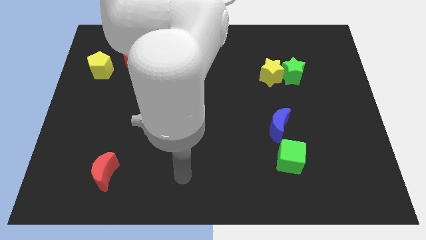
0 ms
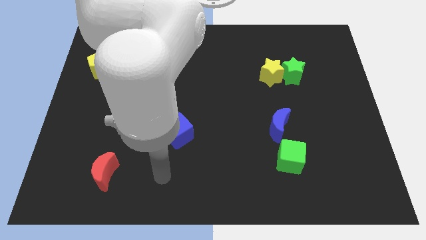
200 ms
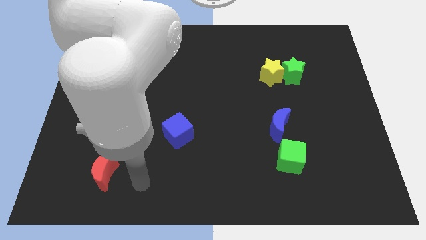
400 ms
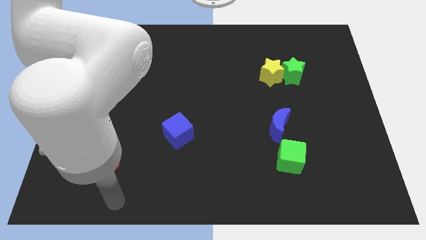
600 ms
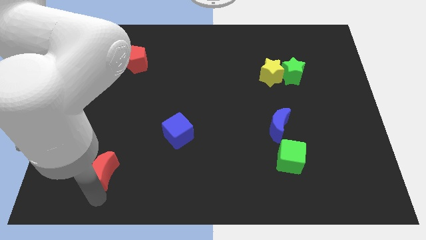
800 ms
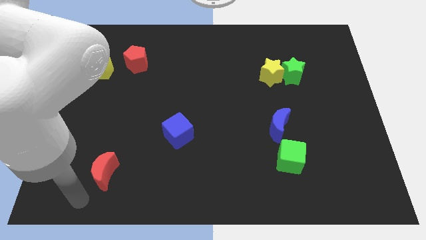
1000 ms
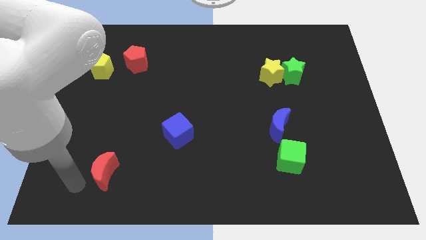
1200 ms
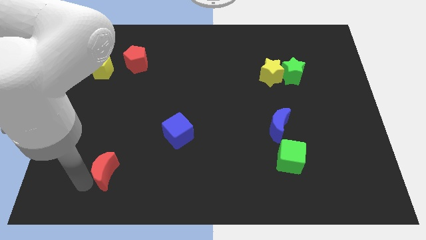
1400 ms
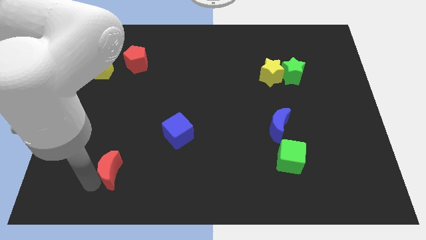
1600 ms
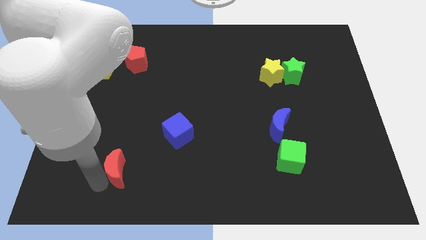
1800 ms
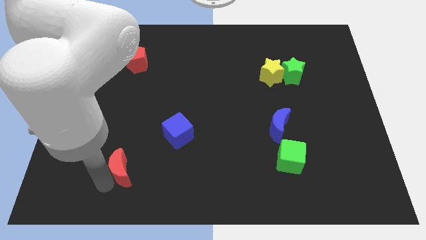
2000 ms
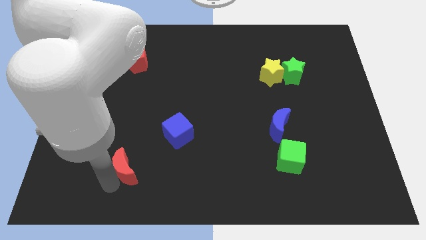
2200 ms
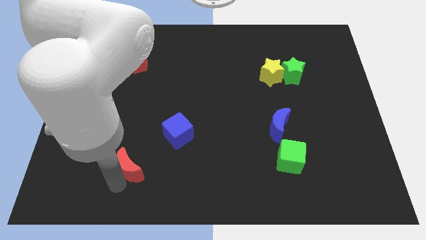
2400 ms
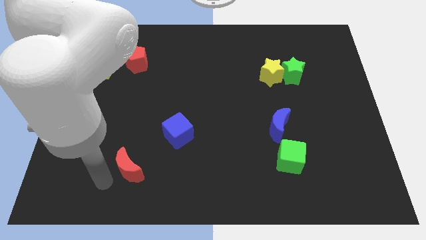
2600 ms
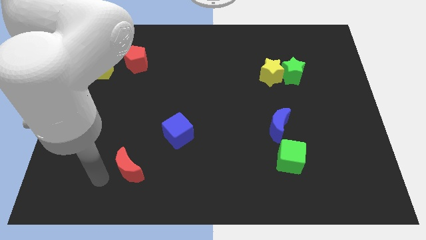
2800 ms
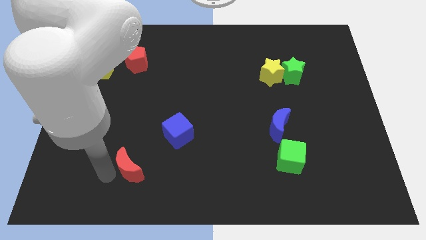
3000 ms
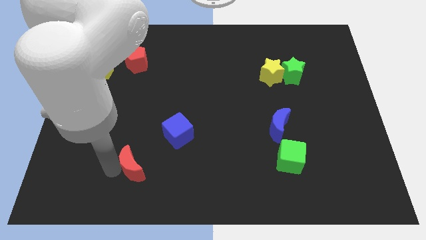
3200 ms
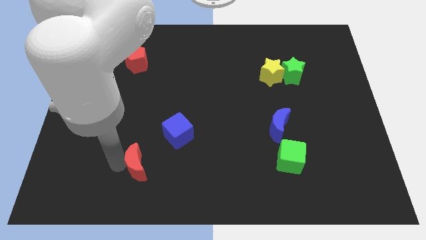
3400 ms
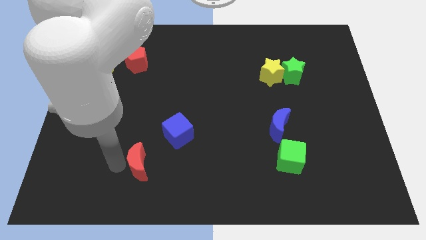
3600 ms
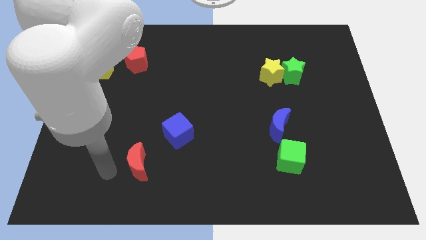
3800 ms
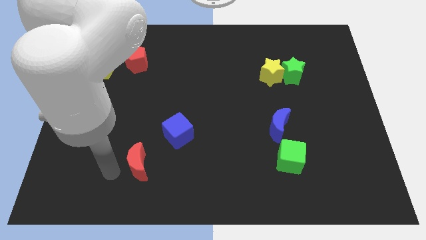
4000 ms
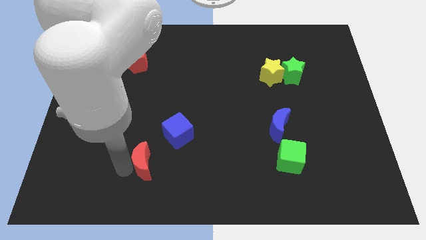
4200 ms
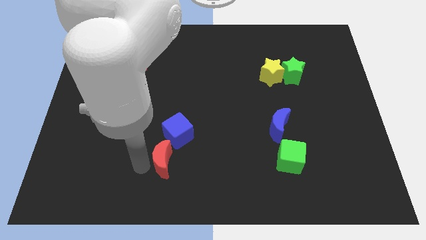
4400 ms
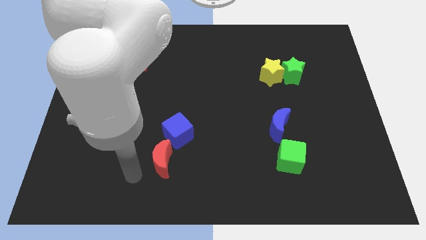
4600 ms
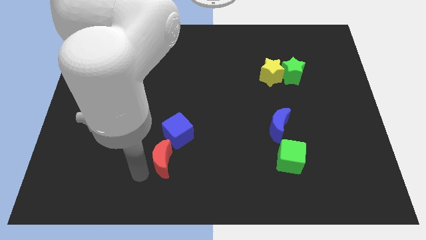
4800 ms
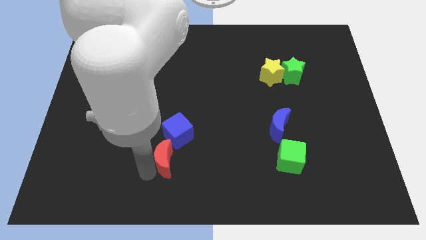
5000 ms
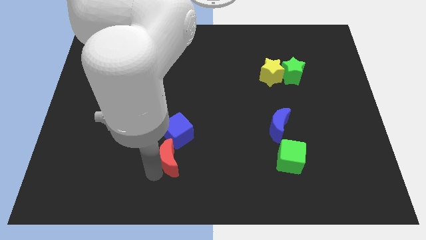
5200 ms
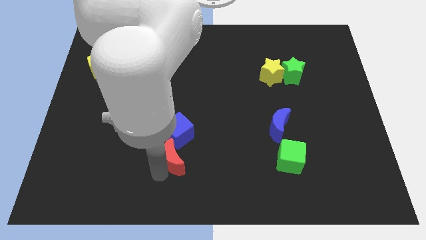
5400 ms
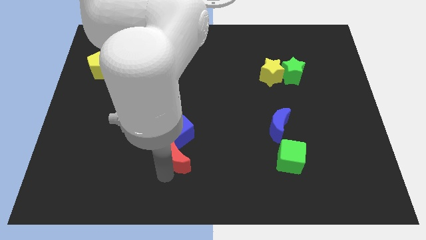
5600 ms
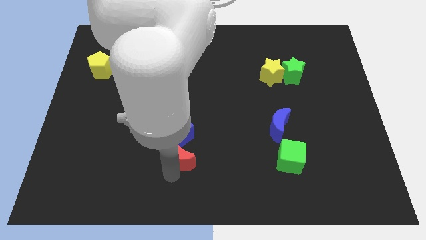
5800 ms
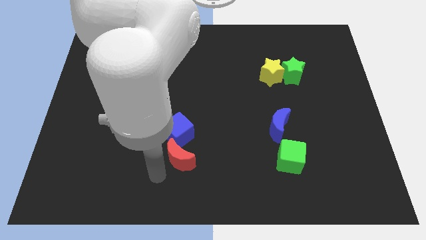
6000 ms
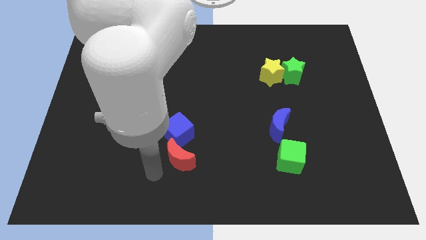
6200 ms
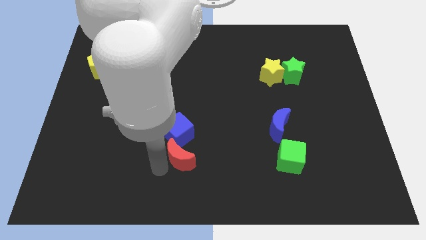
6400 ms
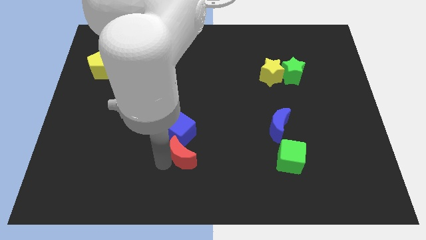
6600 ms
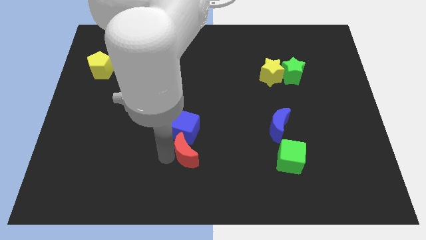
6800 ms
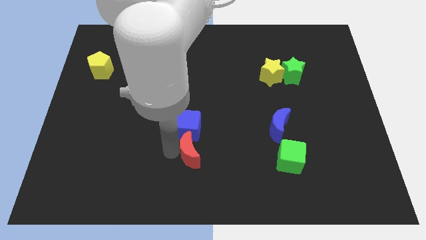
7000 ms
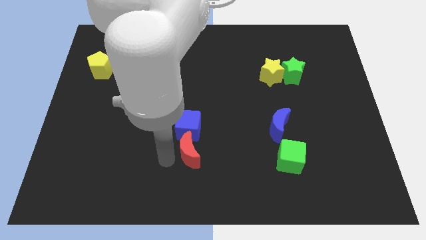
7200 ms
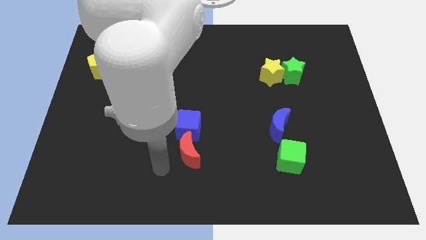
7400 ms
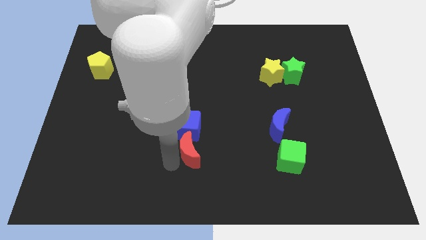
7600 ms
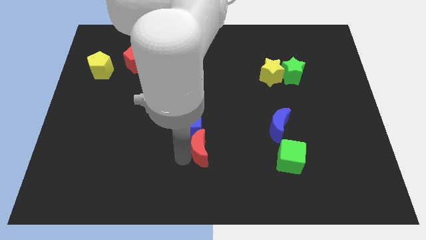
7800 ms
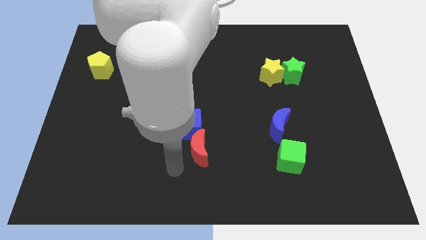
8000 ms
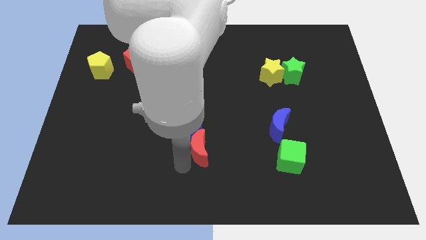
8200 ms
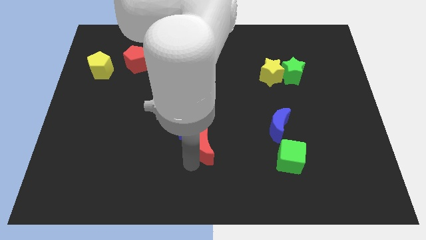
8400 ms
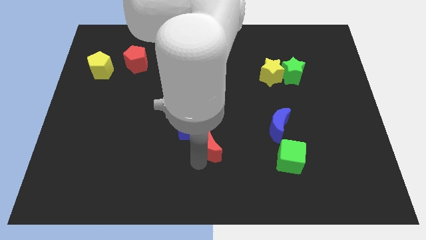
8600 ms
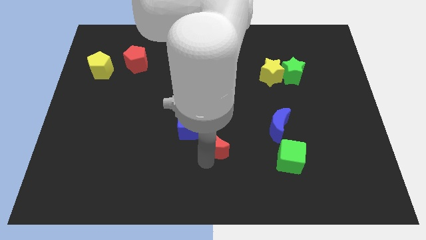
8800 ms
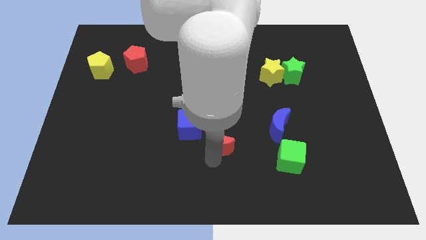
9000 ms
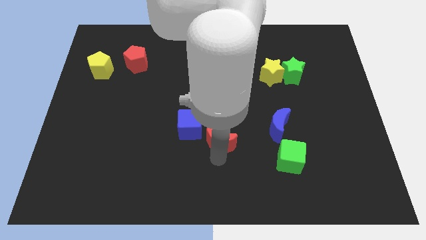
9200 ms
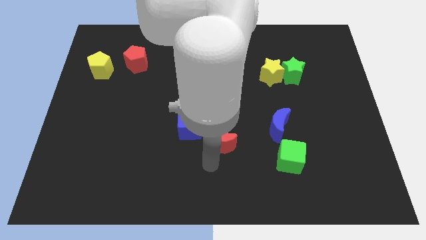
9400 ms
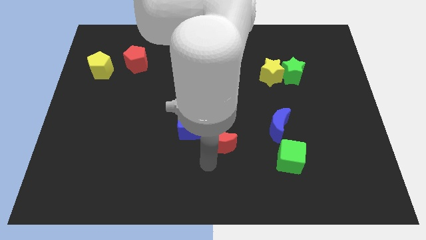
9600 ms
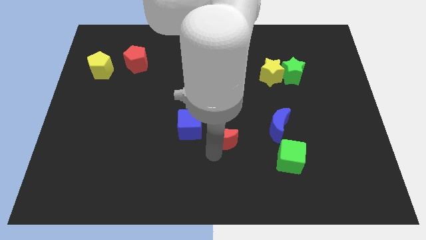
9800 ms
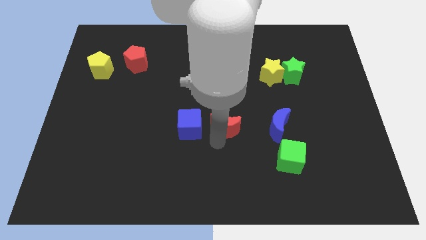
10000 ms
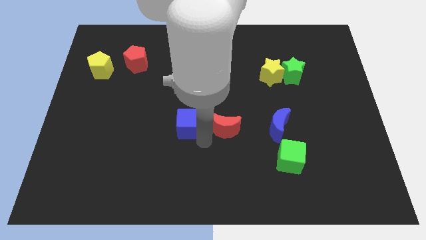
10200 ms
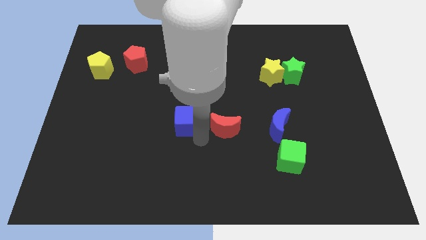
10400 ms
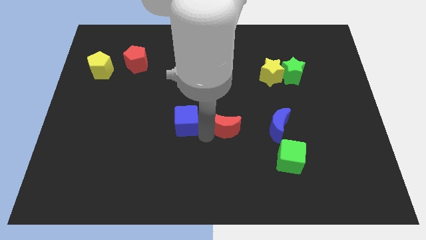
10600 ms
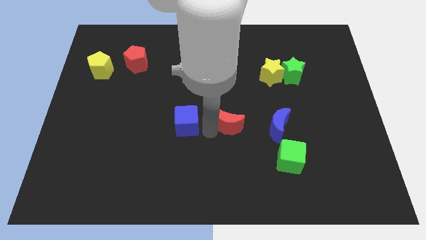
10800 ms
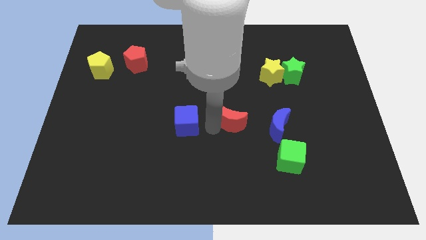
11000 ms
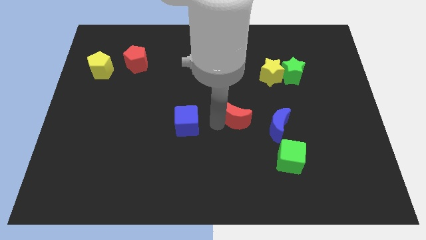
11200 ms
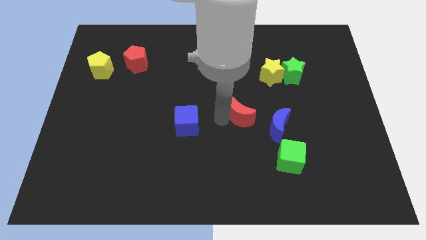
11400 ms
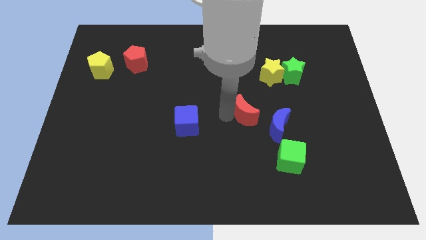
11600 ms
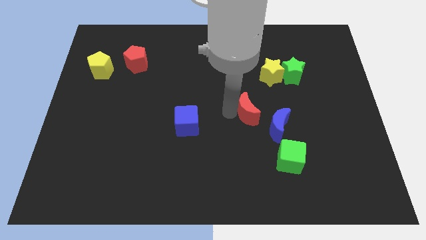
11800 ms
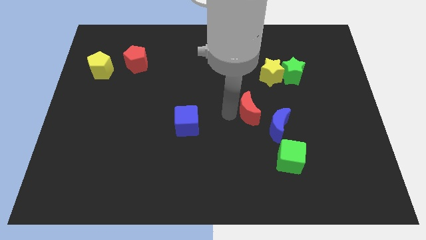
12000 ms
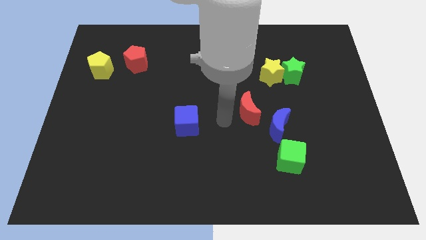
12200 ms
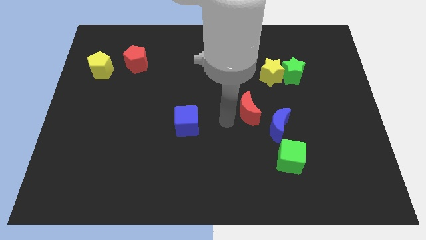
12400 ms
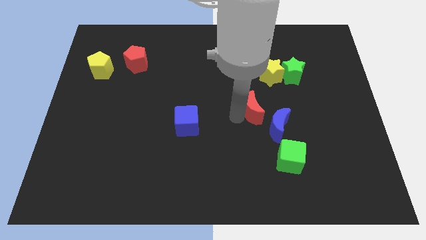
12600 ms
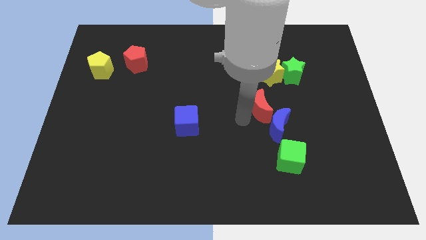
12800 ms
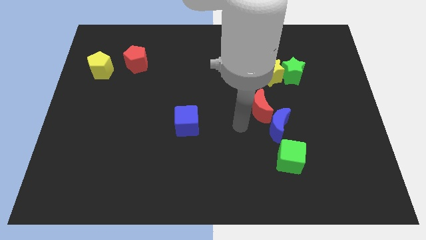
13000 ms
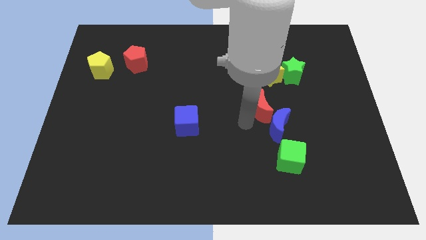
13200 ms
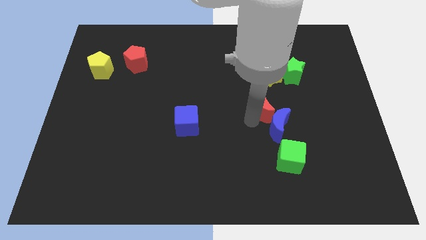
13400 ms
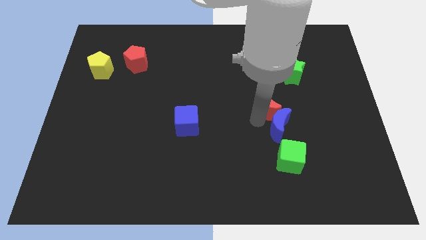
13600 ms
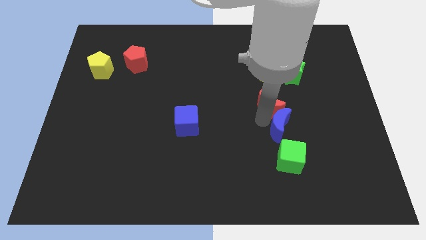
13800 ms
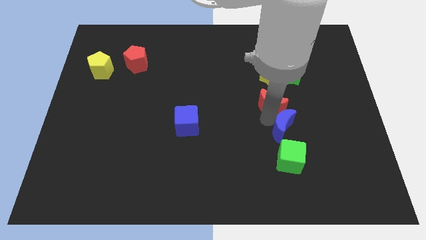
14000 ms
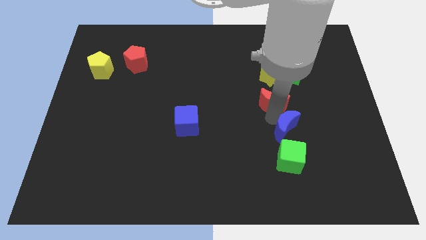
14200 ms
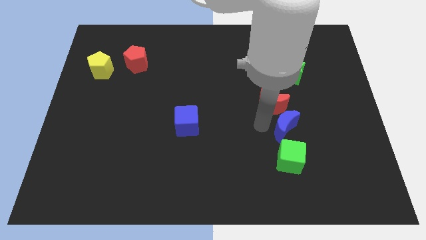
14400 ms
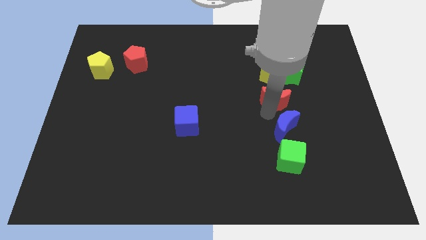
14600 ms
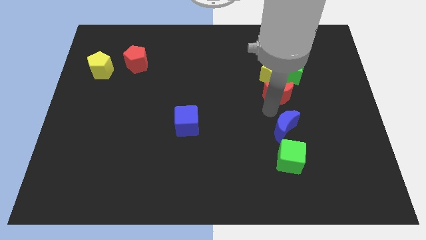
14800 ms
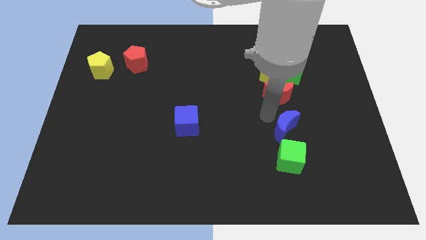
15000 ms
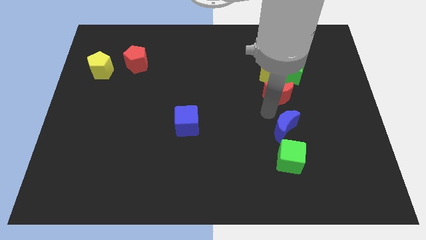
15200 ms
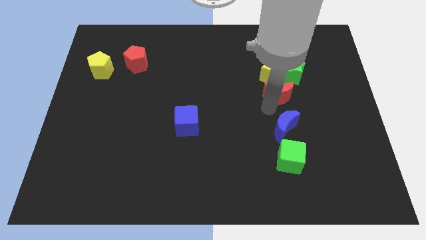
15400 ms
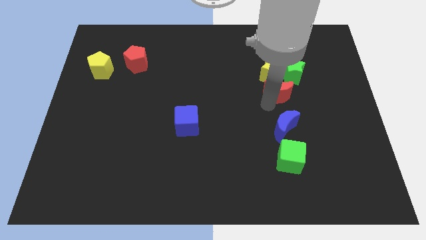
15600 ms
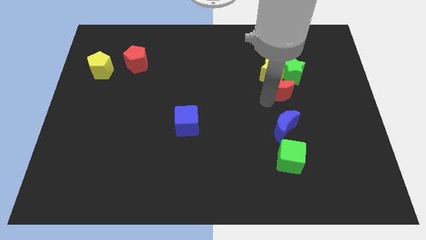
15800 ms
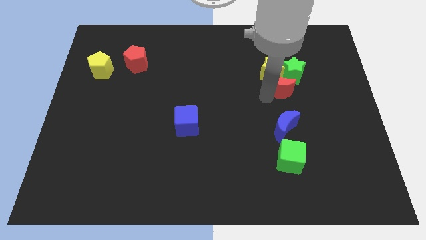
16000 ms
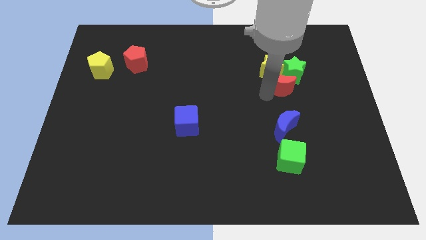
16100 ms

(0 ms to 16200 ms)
push the red moon to the green star
